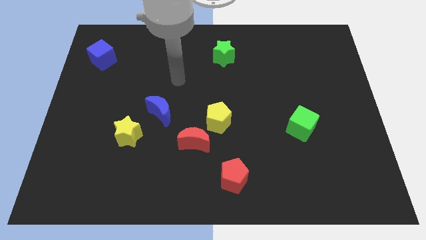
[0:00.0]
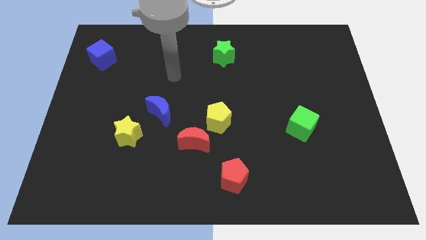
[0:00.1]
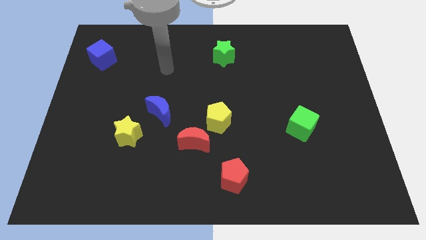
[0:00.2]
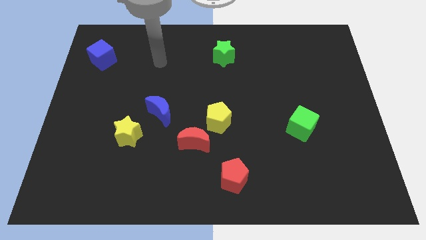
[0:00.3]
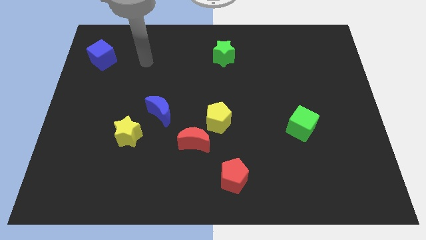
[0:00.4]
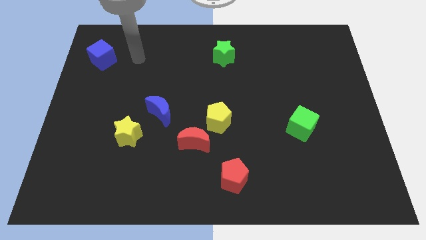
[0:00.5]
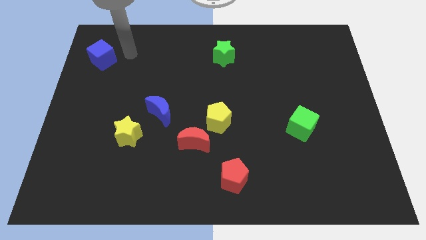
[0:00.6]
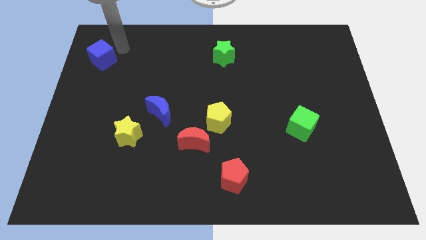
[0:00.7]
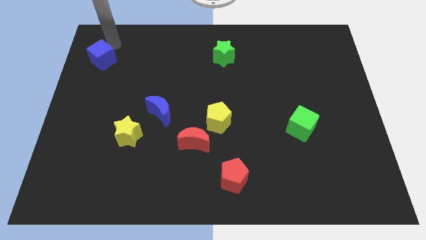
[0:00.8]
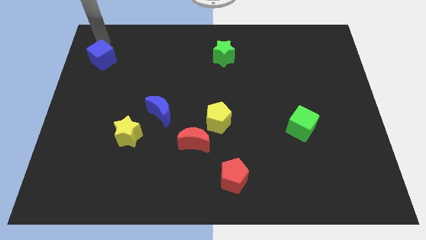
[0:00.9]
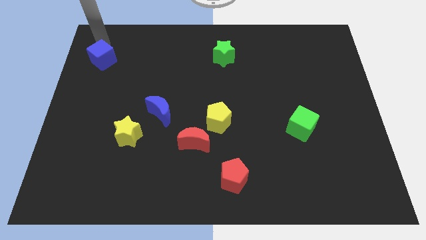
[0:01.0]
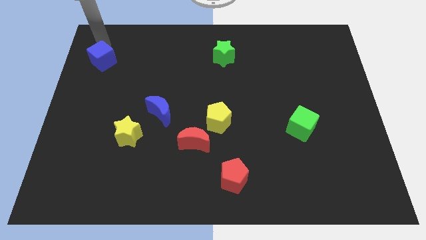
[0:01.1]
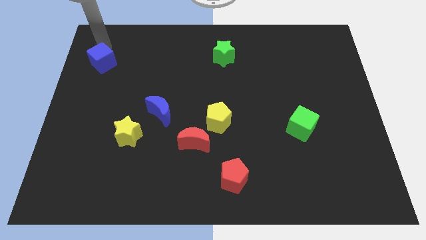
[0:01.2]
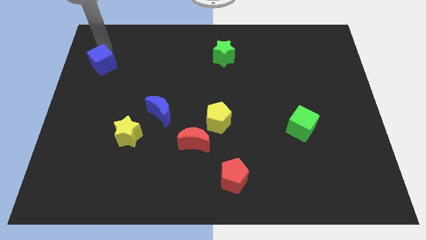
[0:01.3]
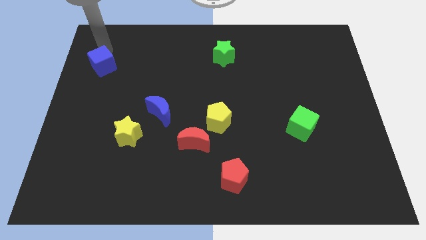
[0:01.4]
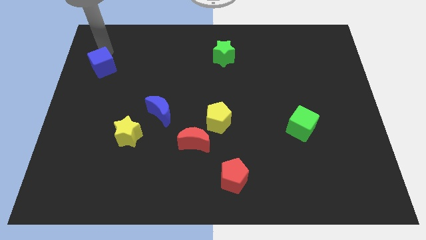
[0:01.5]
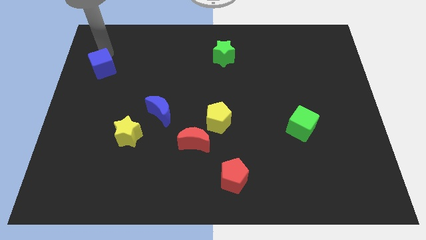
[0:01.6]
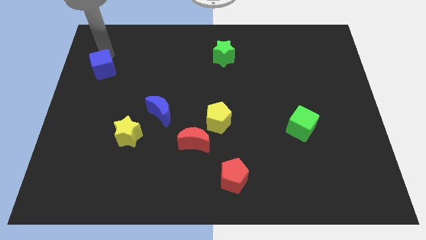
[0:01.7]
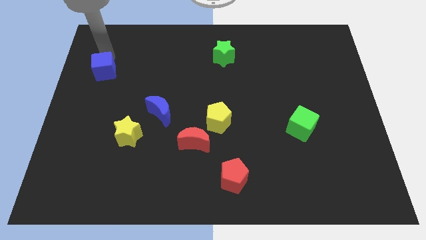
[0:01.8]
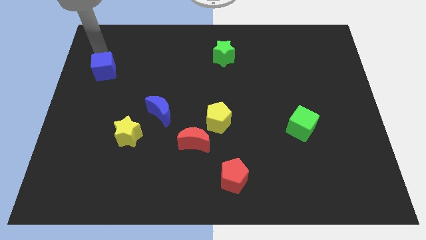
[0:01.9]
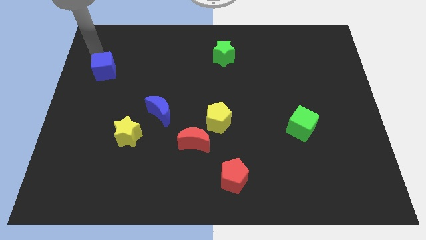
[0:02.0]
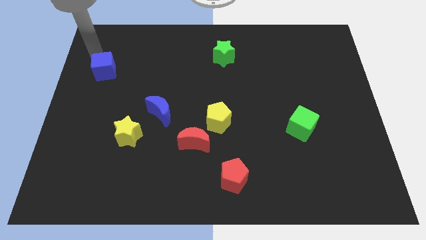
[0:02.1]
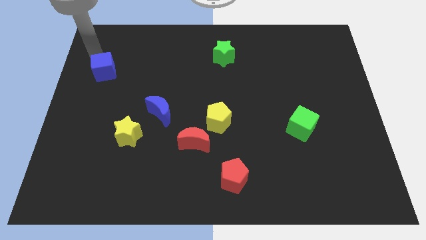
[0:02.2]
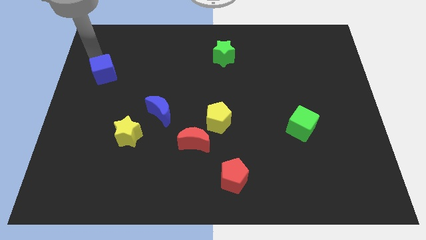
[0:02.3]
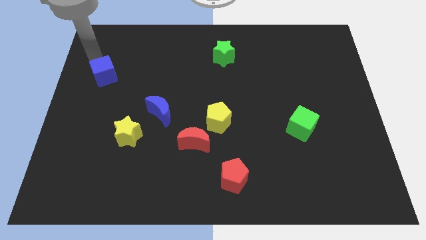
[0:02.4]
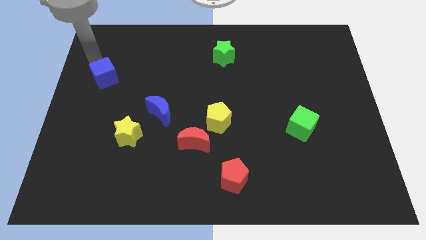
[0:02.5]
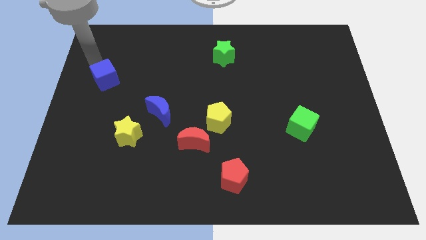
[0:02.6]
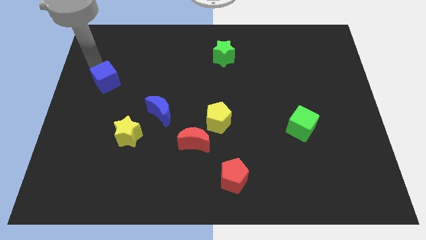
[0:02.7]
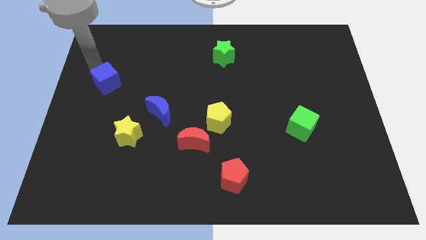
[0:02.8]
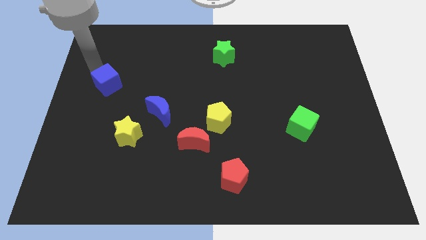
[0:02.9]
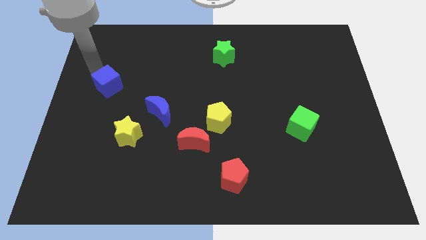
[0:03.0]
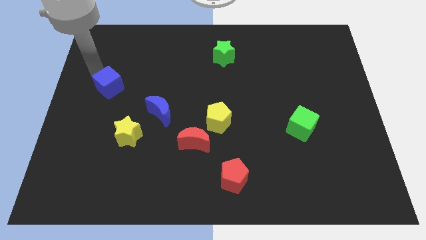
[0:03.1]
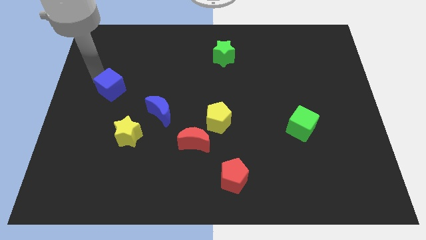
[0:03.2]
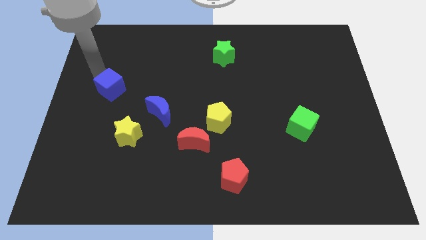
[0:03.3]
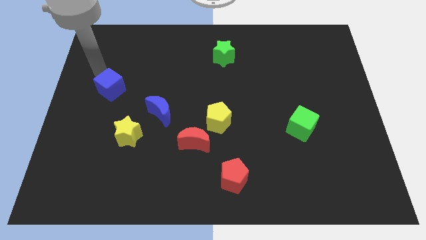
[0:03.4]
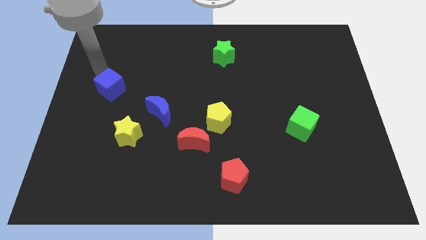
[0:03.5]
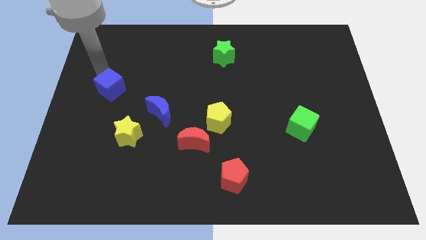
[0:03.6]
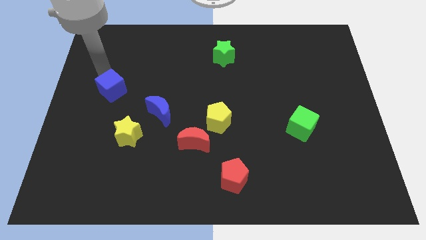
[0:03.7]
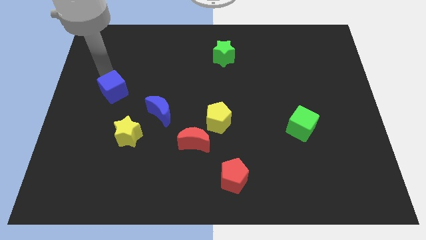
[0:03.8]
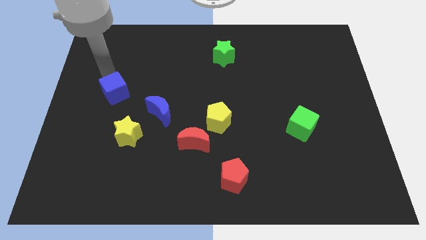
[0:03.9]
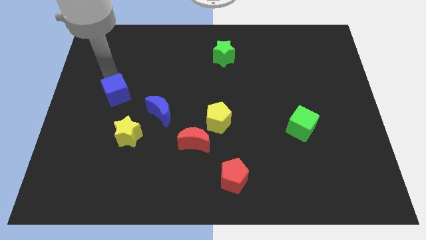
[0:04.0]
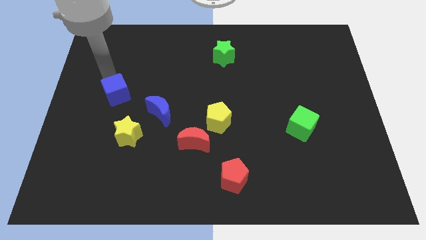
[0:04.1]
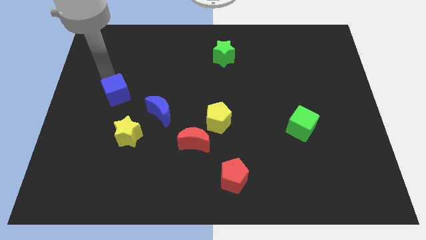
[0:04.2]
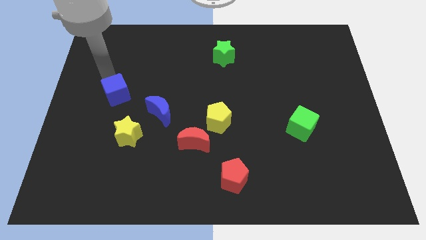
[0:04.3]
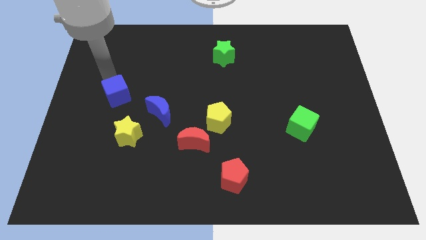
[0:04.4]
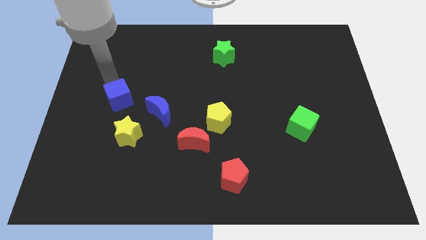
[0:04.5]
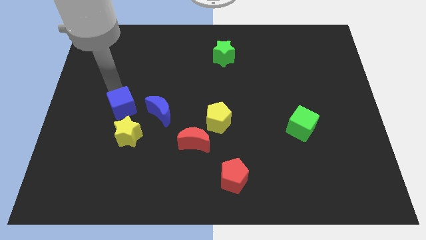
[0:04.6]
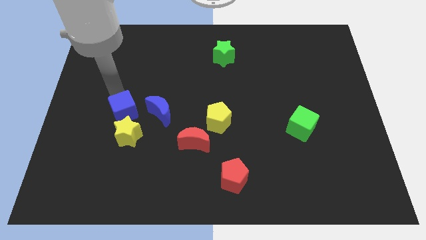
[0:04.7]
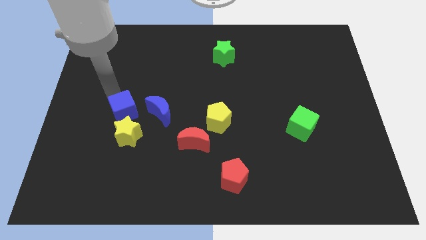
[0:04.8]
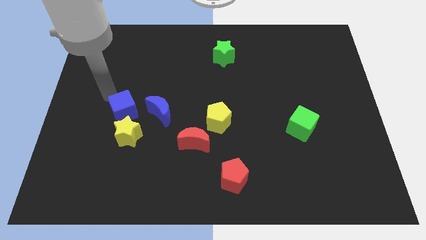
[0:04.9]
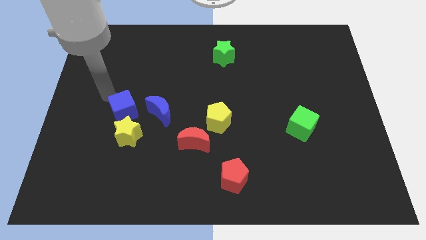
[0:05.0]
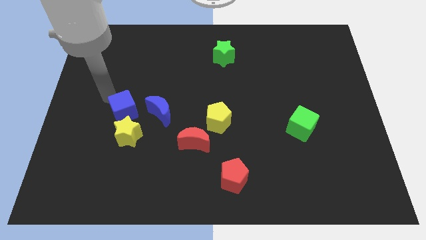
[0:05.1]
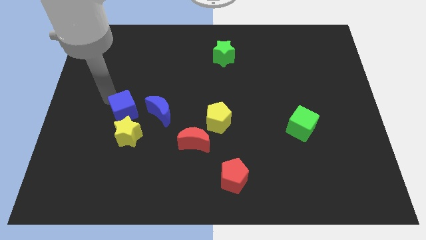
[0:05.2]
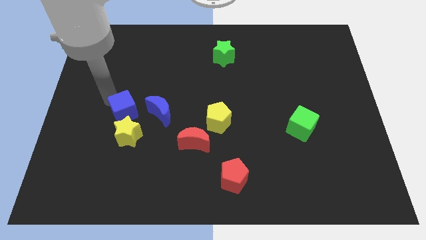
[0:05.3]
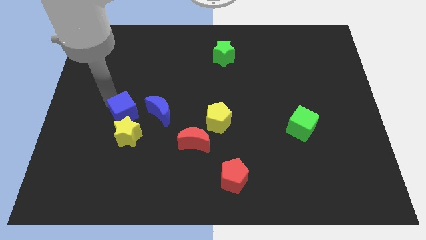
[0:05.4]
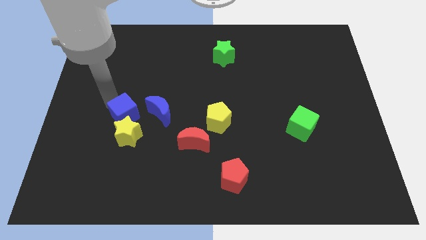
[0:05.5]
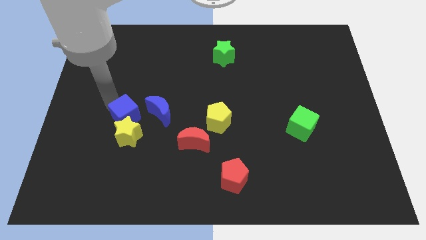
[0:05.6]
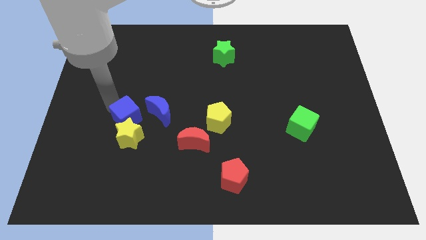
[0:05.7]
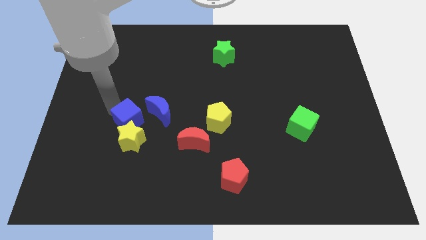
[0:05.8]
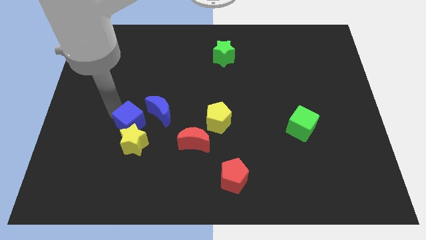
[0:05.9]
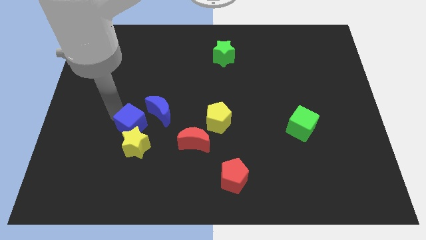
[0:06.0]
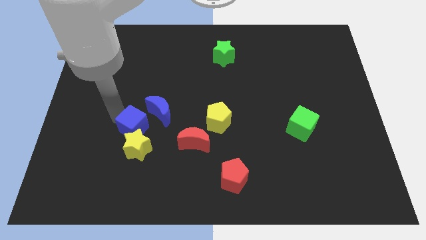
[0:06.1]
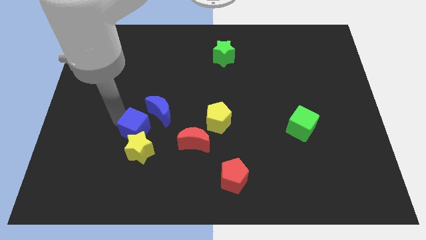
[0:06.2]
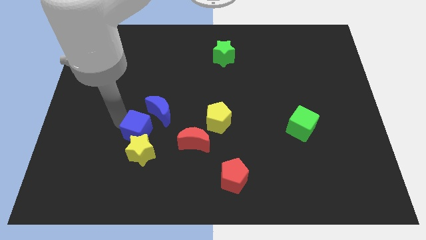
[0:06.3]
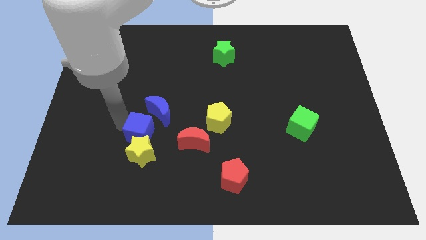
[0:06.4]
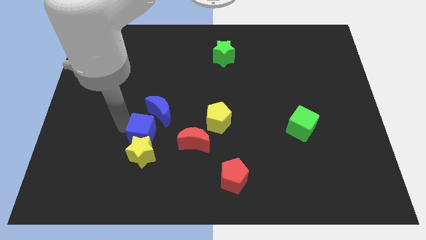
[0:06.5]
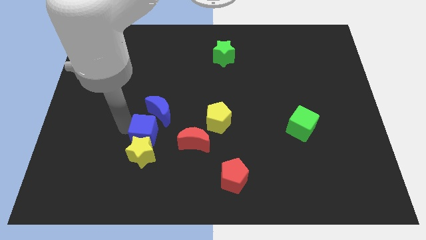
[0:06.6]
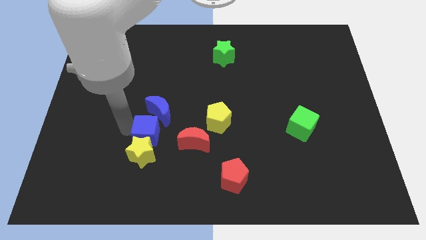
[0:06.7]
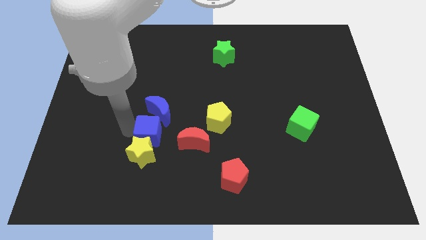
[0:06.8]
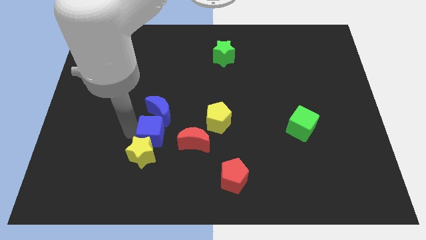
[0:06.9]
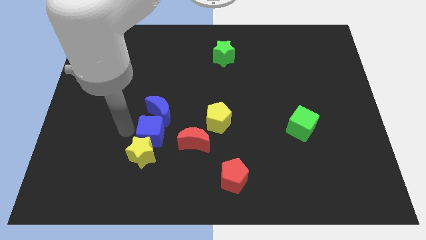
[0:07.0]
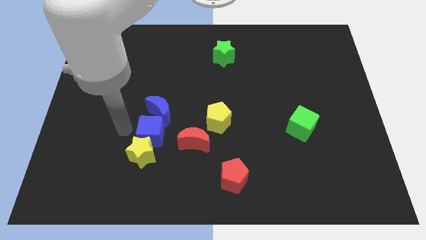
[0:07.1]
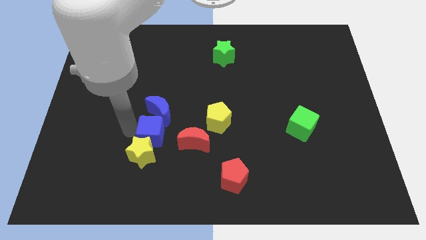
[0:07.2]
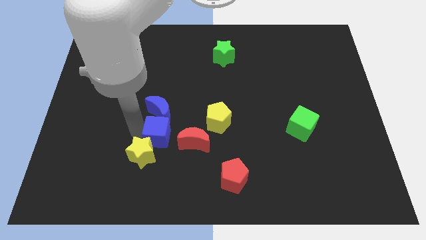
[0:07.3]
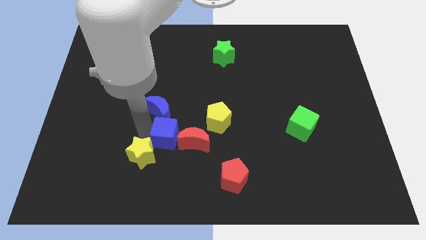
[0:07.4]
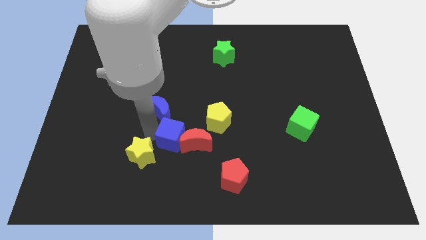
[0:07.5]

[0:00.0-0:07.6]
put the blue cube close to the red moon
